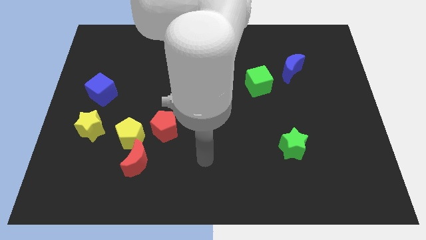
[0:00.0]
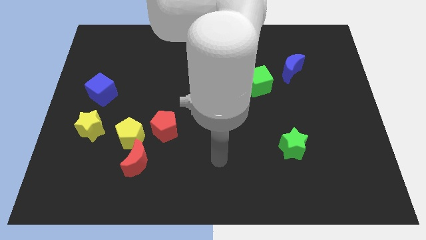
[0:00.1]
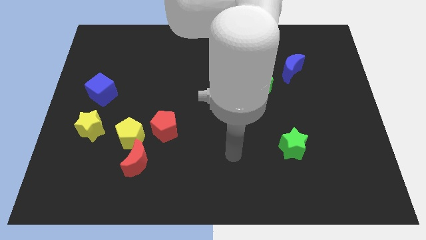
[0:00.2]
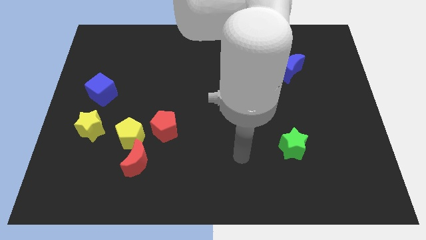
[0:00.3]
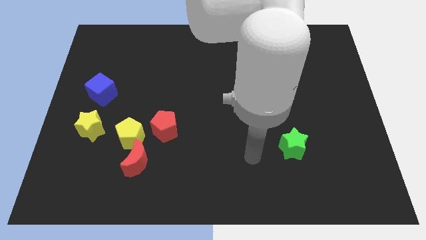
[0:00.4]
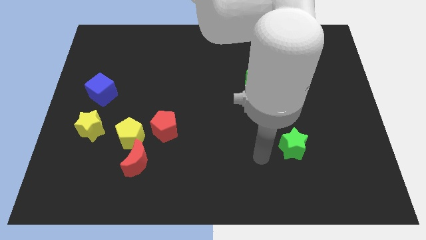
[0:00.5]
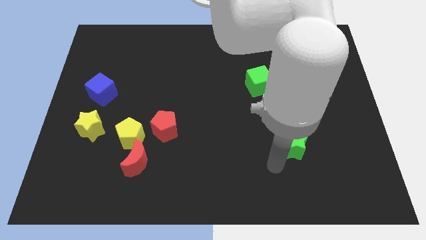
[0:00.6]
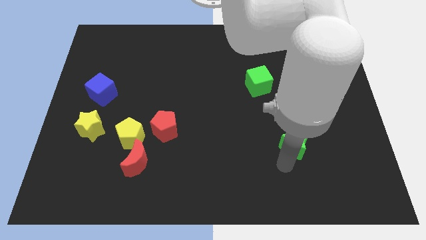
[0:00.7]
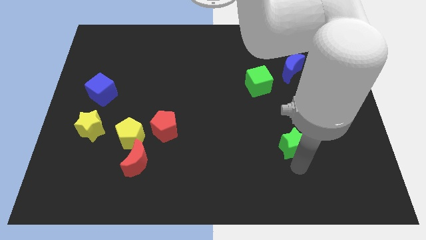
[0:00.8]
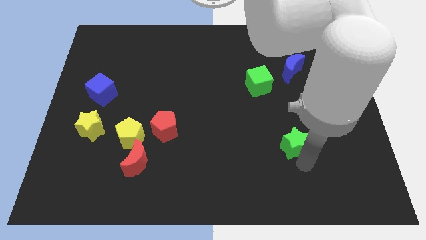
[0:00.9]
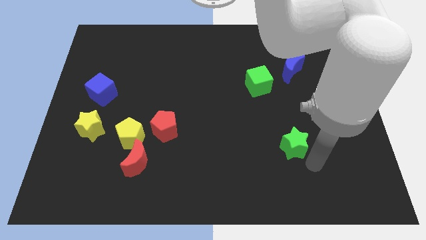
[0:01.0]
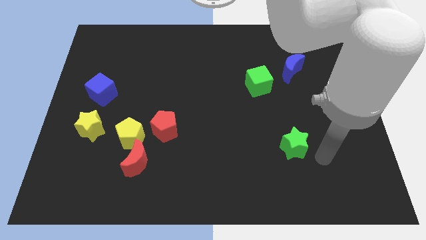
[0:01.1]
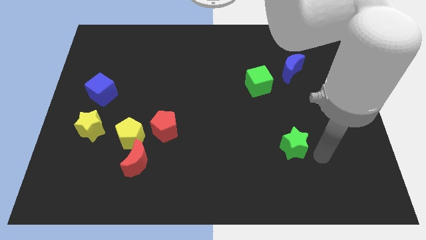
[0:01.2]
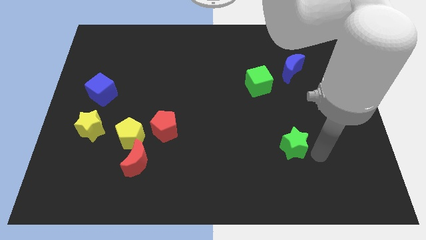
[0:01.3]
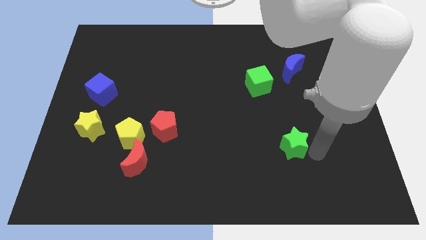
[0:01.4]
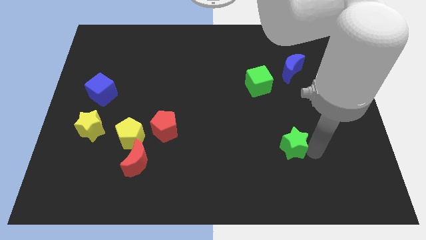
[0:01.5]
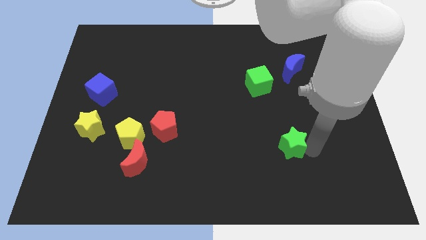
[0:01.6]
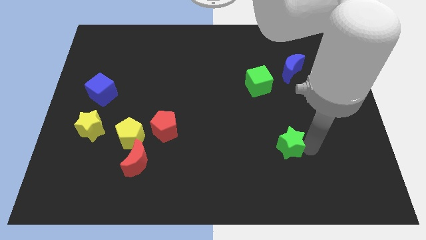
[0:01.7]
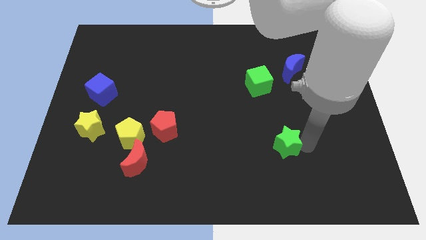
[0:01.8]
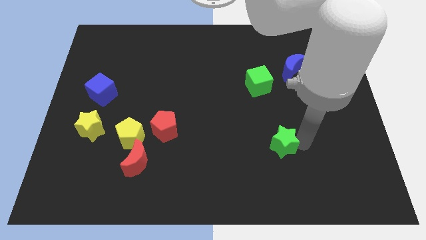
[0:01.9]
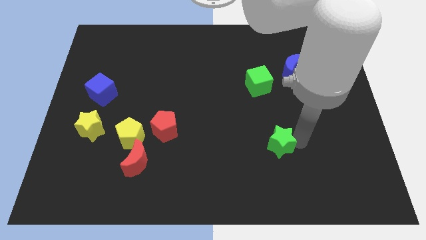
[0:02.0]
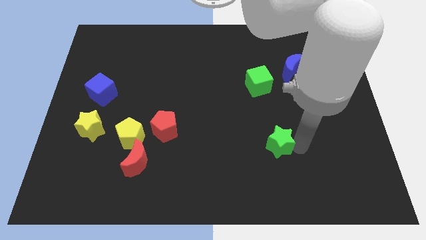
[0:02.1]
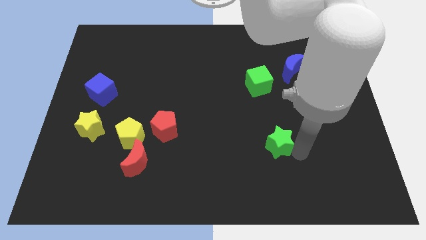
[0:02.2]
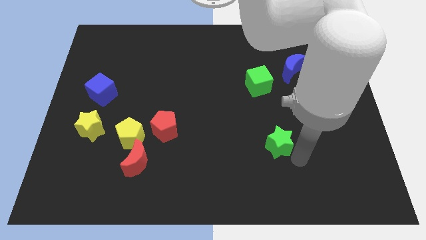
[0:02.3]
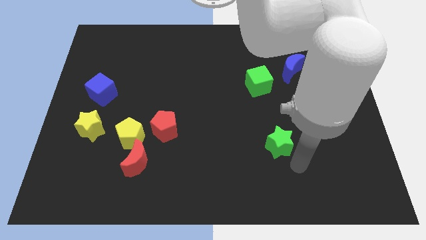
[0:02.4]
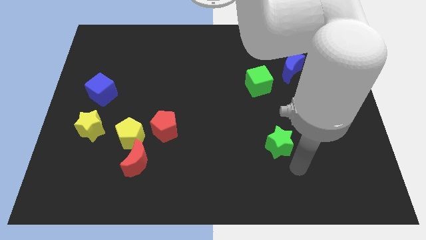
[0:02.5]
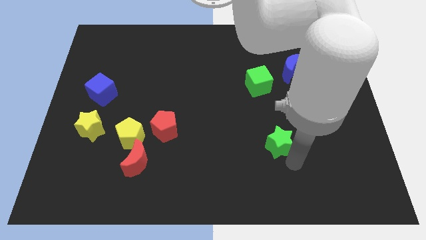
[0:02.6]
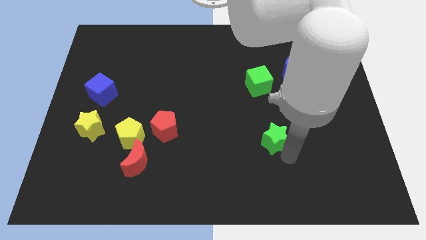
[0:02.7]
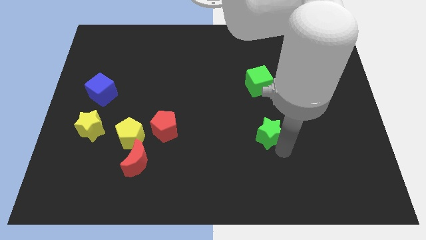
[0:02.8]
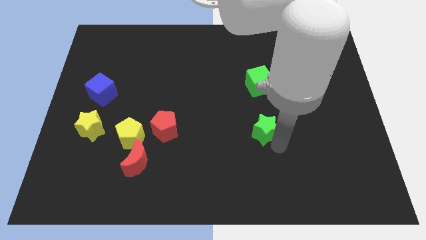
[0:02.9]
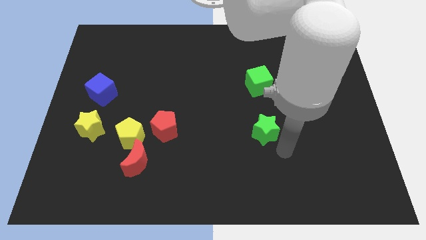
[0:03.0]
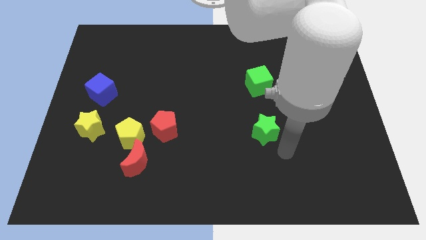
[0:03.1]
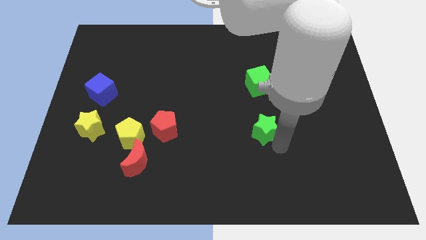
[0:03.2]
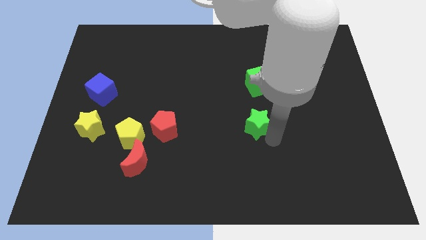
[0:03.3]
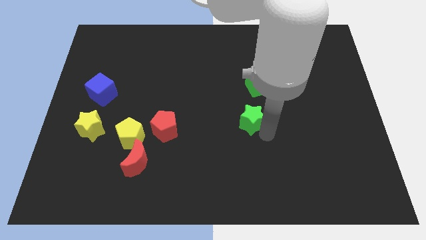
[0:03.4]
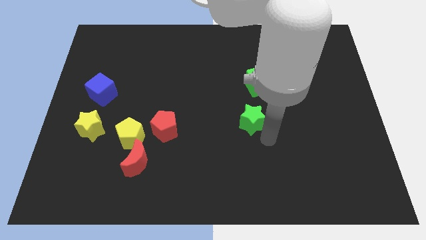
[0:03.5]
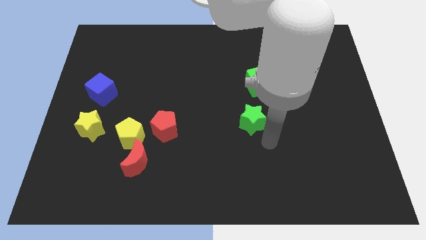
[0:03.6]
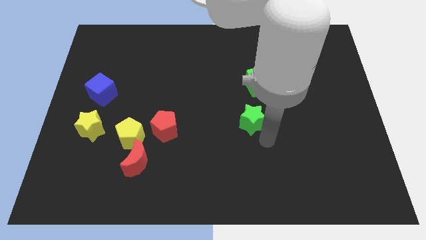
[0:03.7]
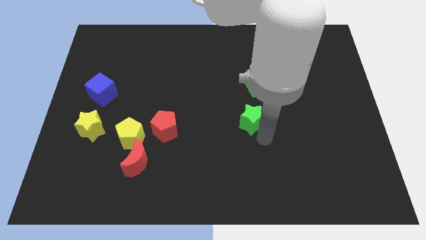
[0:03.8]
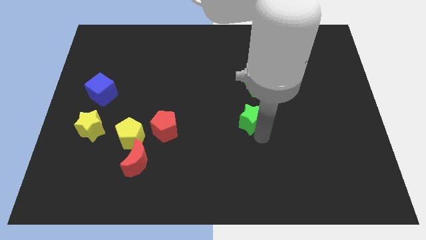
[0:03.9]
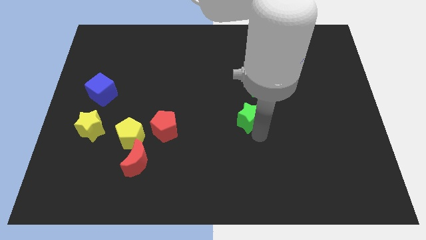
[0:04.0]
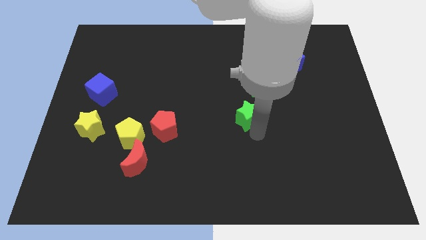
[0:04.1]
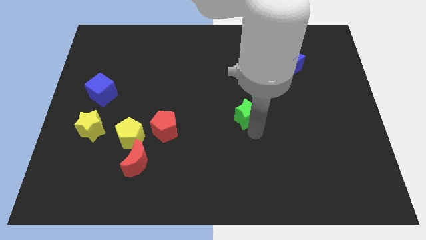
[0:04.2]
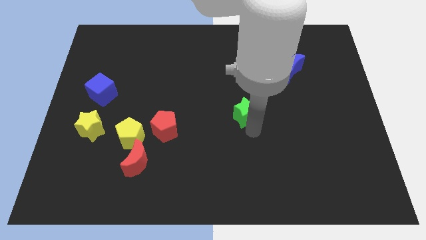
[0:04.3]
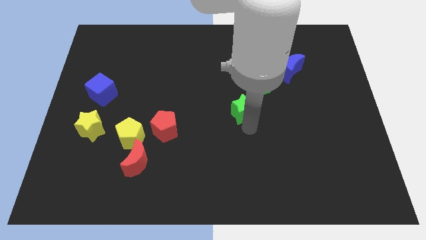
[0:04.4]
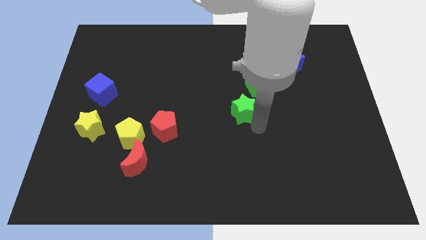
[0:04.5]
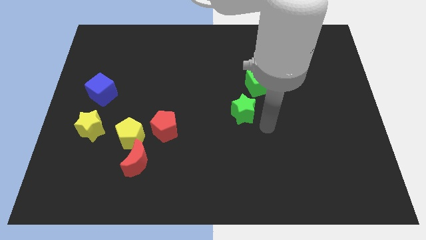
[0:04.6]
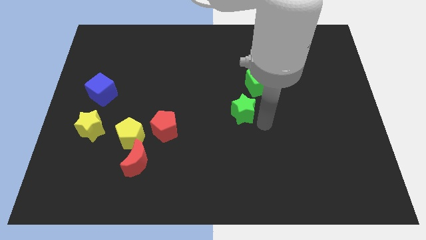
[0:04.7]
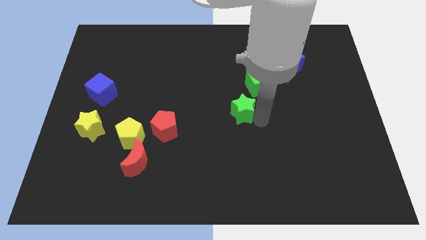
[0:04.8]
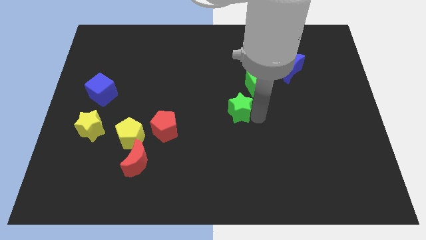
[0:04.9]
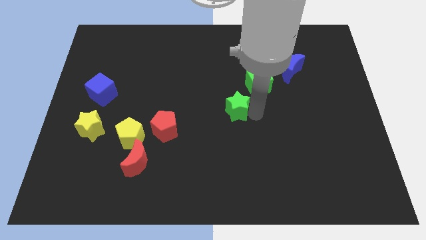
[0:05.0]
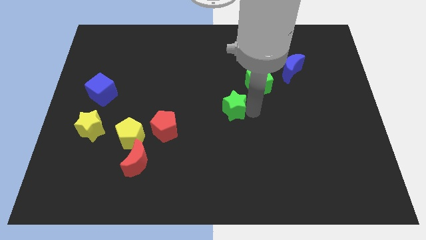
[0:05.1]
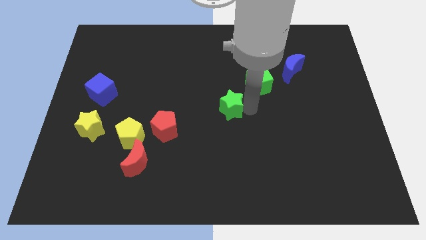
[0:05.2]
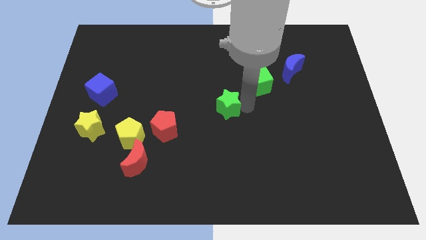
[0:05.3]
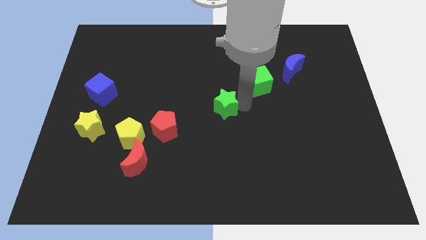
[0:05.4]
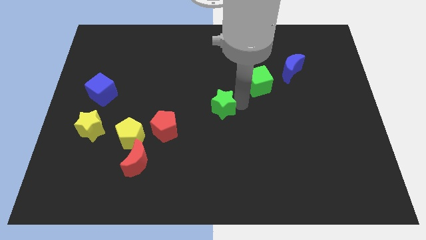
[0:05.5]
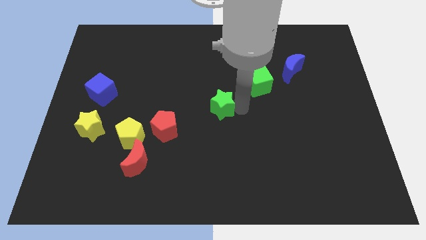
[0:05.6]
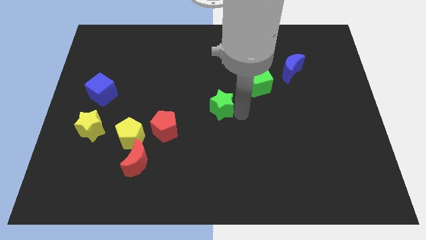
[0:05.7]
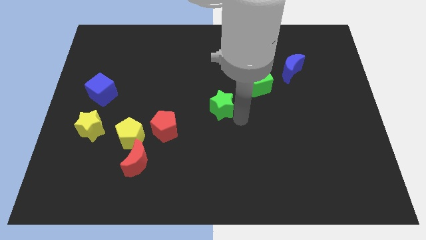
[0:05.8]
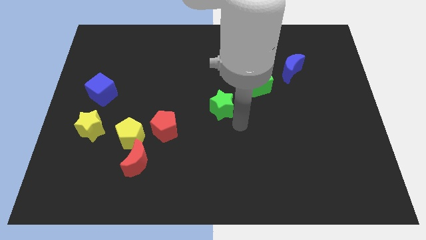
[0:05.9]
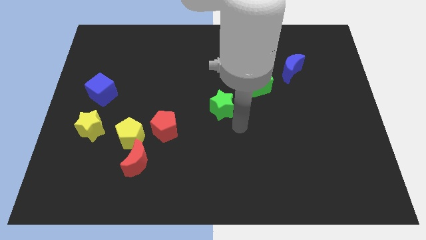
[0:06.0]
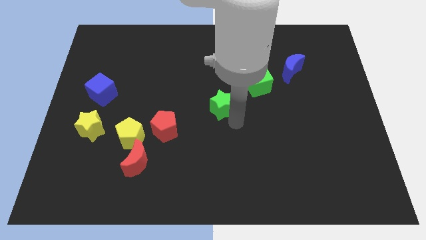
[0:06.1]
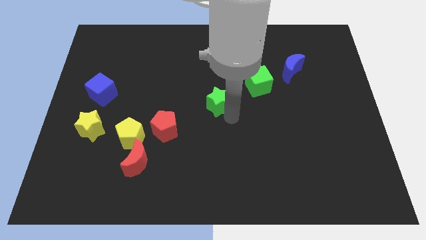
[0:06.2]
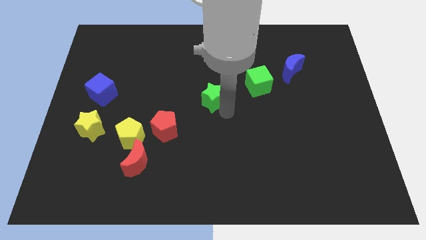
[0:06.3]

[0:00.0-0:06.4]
slide the green star up and left

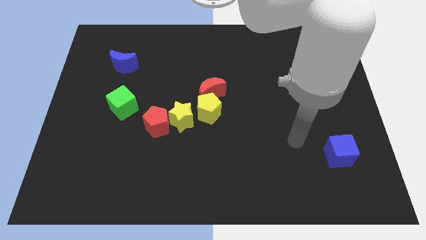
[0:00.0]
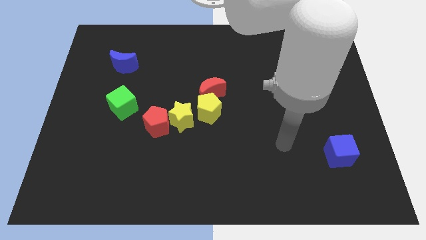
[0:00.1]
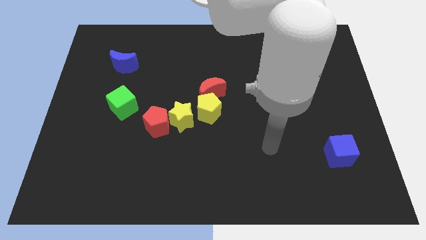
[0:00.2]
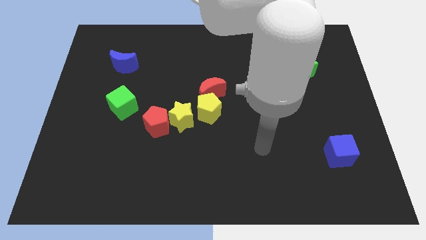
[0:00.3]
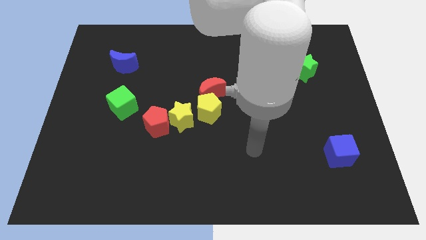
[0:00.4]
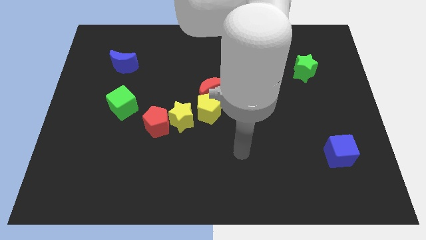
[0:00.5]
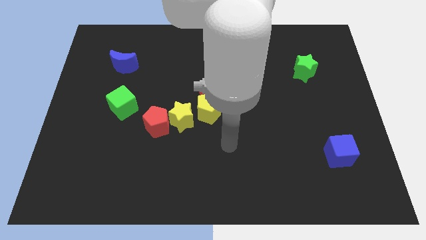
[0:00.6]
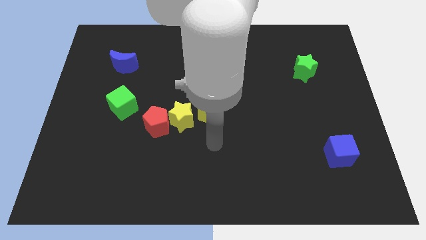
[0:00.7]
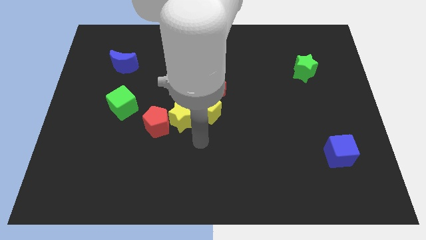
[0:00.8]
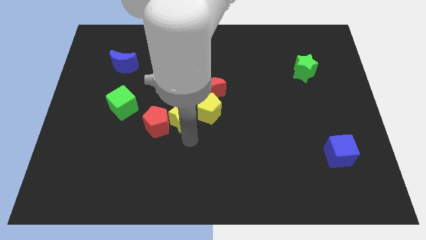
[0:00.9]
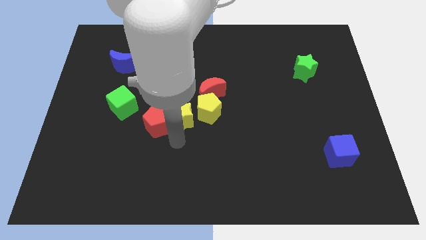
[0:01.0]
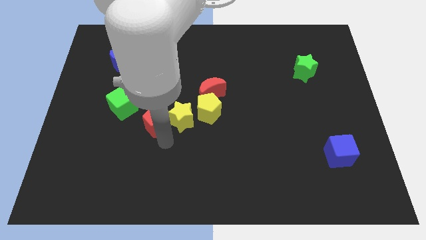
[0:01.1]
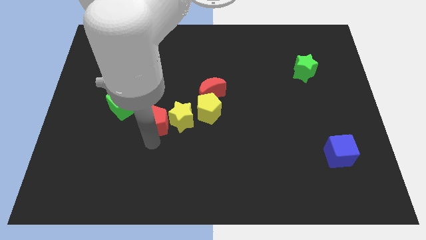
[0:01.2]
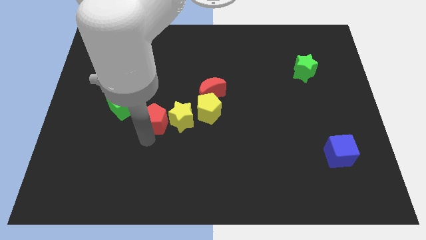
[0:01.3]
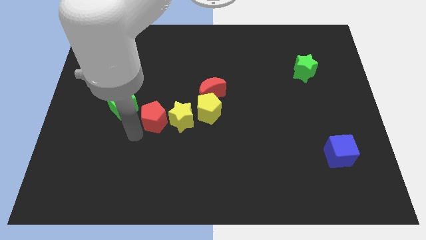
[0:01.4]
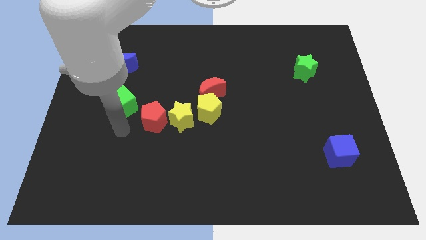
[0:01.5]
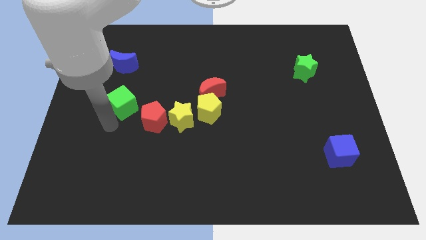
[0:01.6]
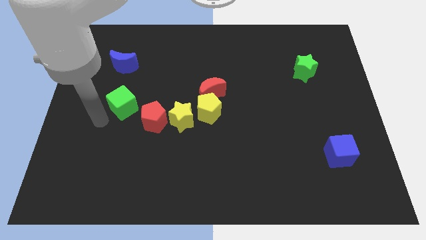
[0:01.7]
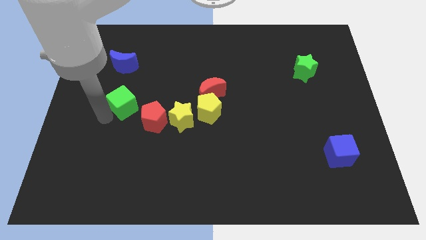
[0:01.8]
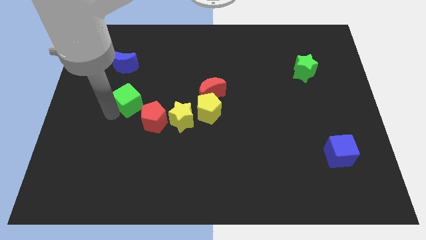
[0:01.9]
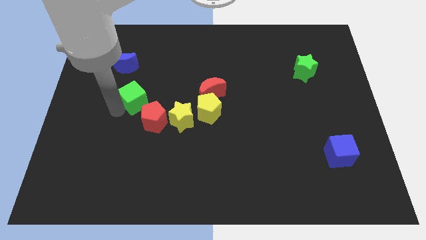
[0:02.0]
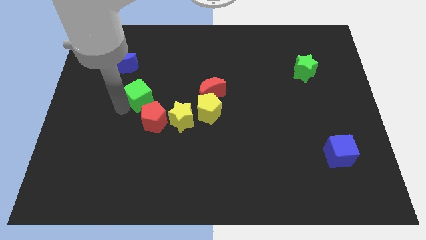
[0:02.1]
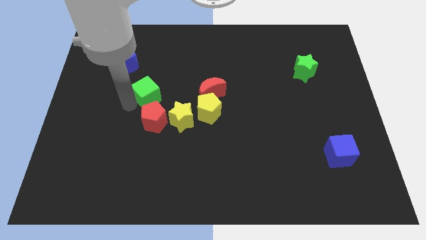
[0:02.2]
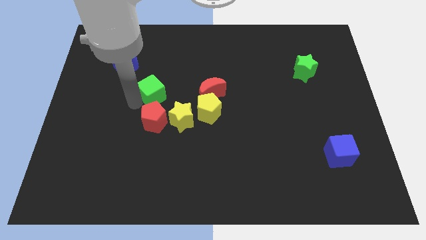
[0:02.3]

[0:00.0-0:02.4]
slightly slide the green cube diagonally upwards and right
